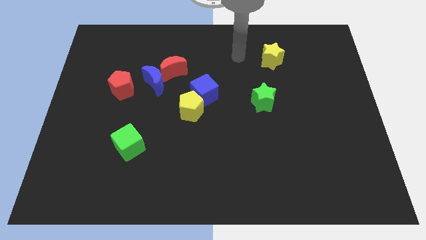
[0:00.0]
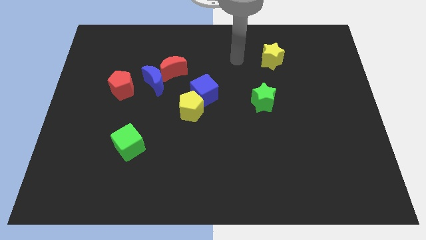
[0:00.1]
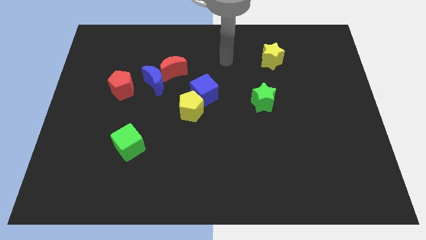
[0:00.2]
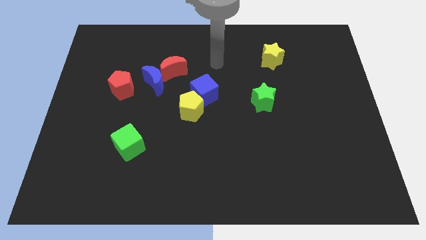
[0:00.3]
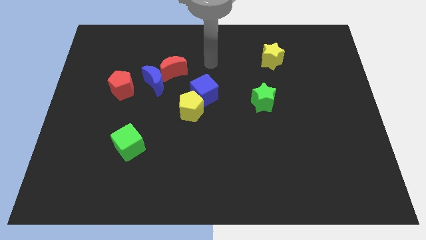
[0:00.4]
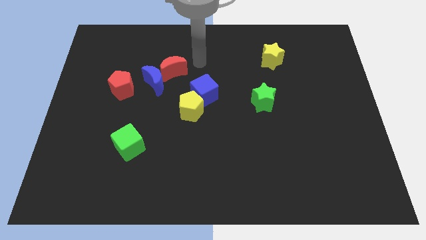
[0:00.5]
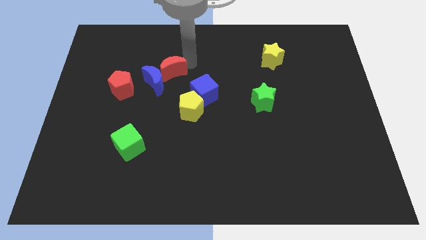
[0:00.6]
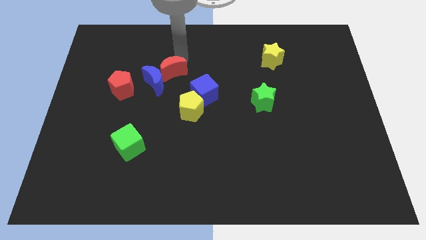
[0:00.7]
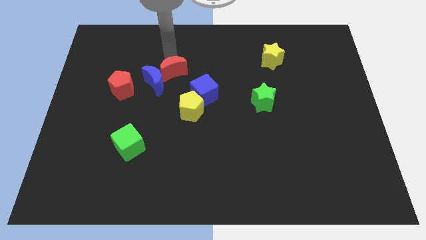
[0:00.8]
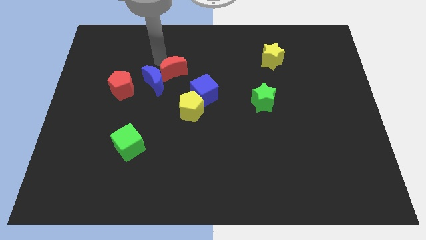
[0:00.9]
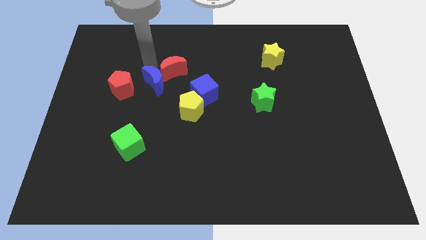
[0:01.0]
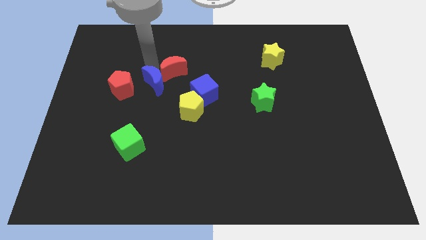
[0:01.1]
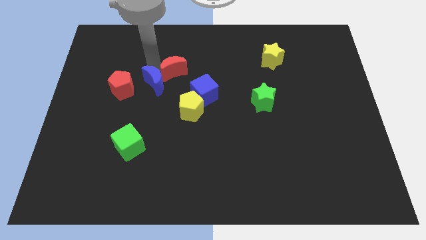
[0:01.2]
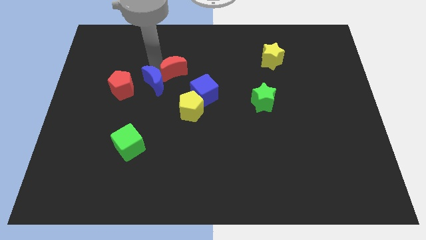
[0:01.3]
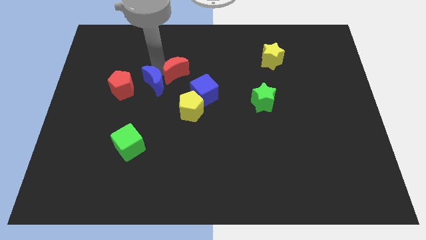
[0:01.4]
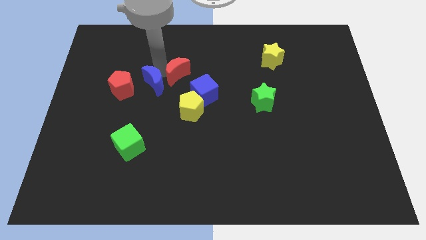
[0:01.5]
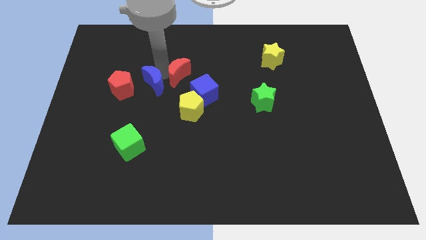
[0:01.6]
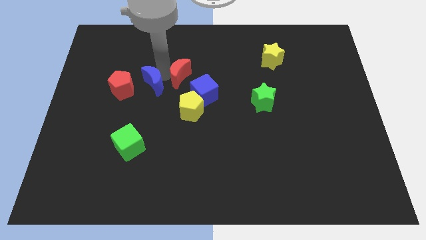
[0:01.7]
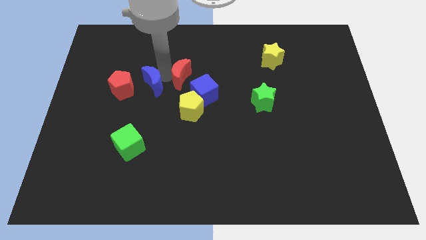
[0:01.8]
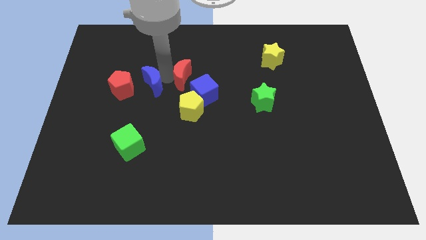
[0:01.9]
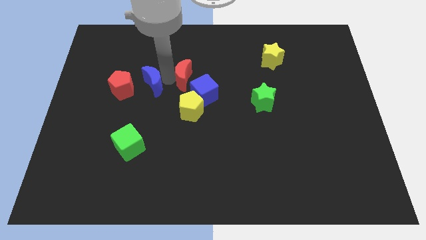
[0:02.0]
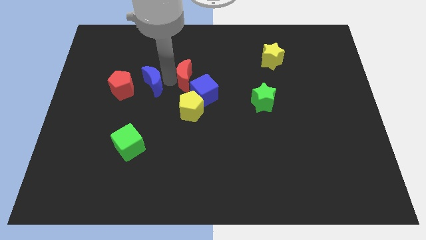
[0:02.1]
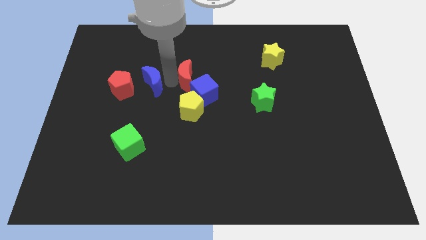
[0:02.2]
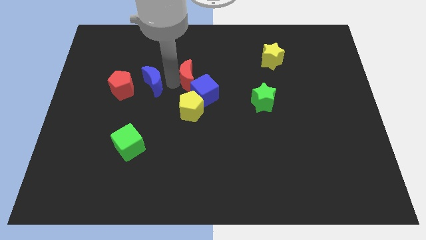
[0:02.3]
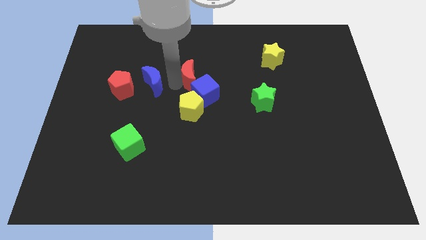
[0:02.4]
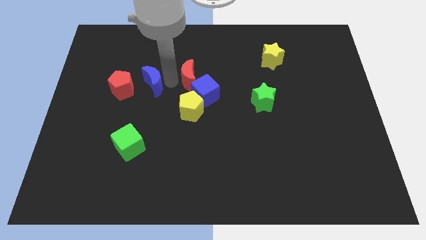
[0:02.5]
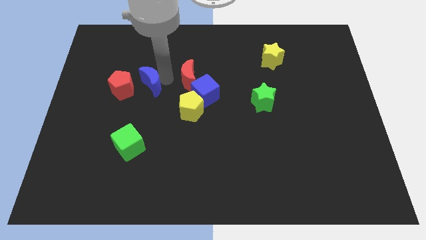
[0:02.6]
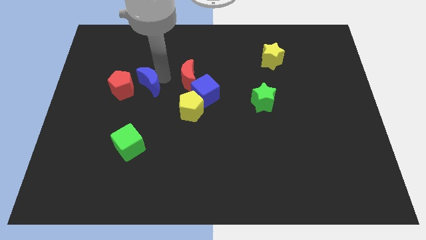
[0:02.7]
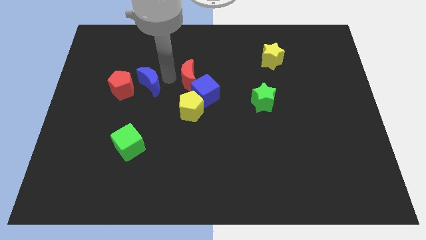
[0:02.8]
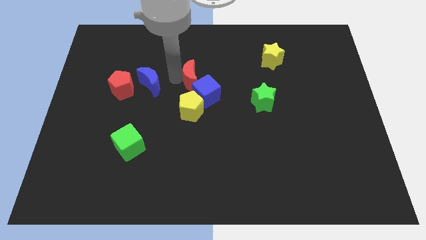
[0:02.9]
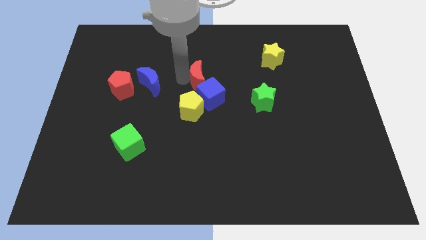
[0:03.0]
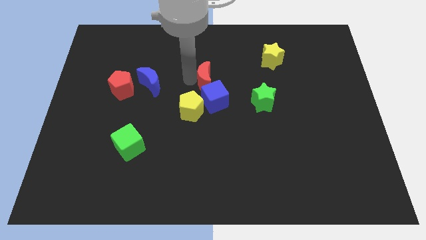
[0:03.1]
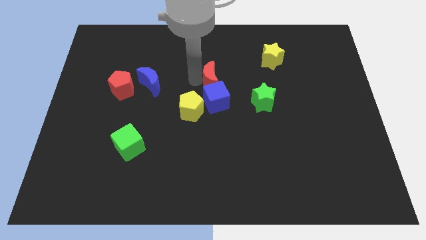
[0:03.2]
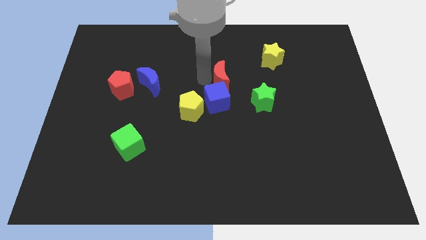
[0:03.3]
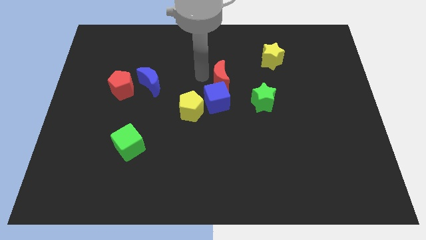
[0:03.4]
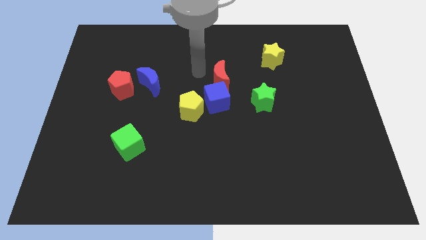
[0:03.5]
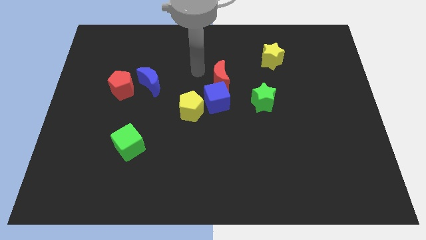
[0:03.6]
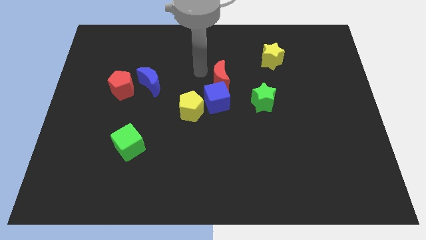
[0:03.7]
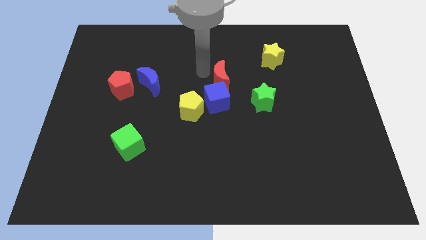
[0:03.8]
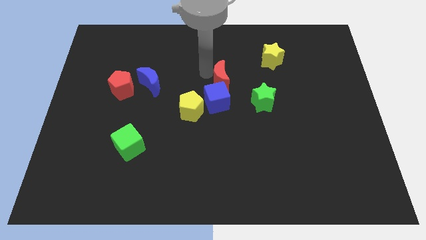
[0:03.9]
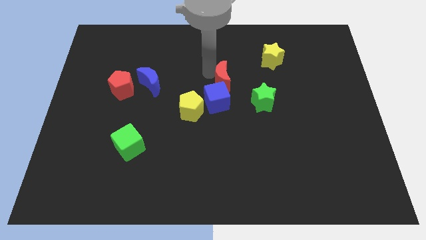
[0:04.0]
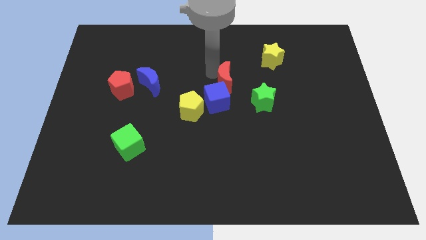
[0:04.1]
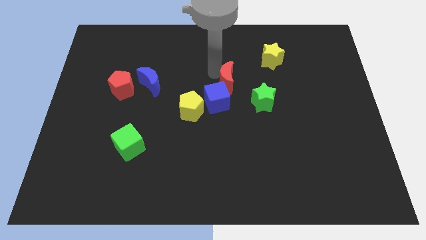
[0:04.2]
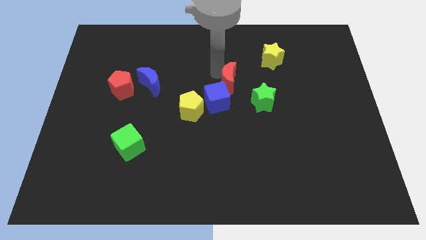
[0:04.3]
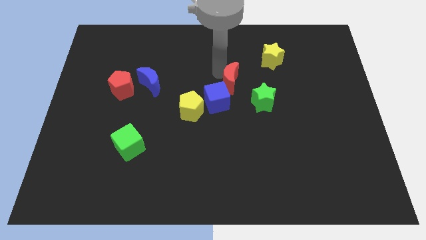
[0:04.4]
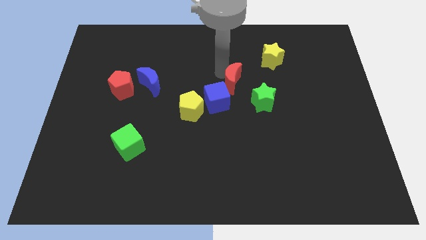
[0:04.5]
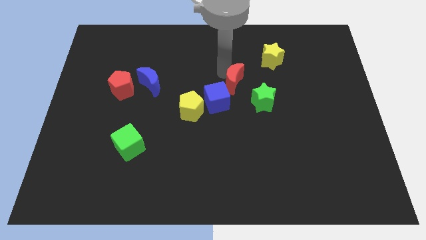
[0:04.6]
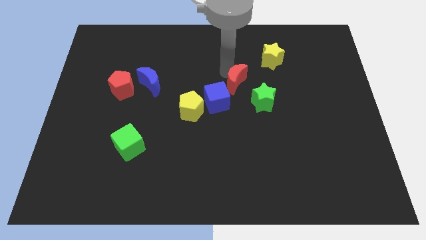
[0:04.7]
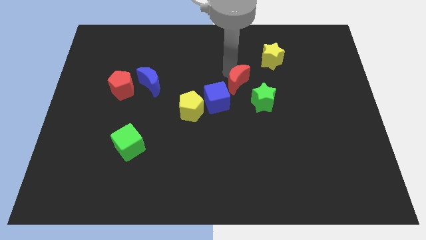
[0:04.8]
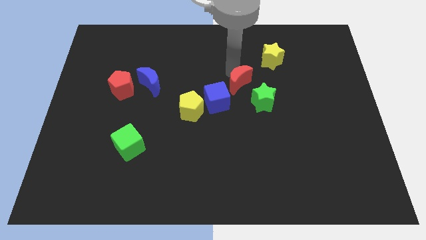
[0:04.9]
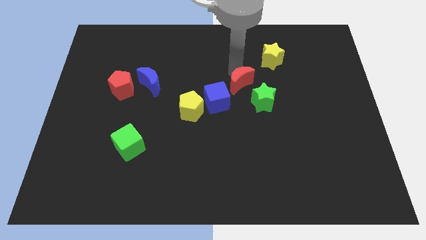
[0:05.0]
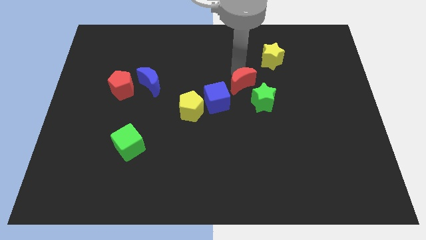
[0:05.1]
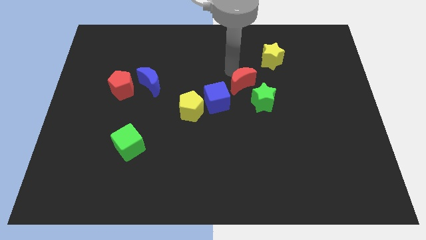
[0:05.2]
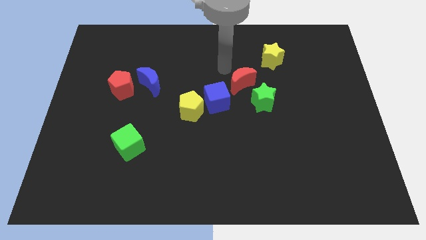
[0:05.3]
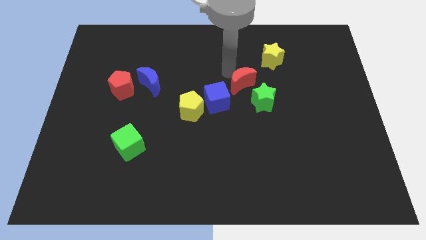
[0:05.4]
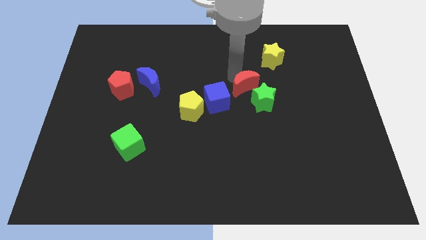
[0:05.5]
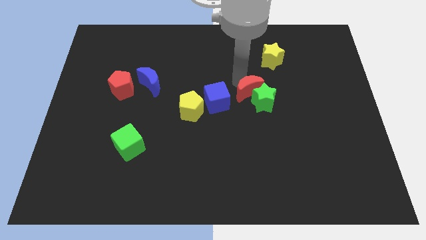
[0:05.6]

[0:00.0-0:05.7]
put the red moon to the green star
